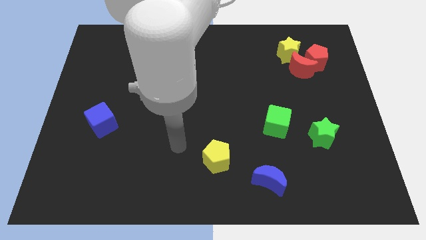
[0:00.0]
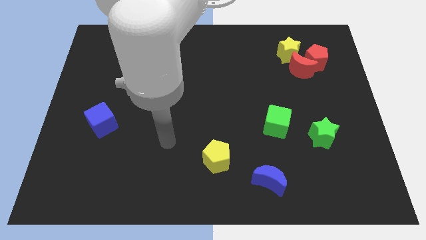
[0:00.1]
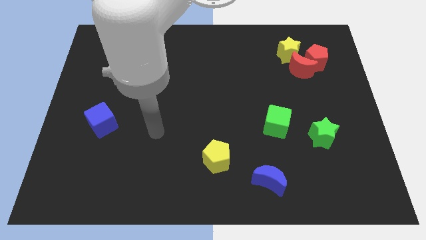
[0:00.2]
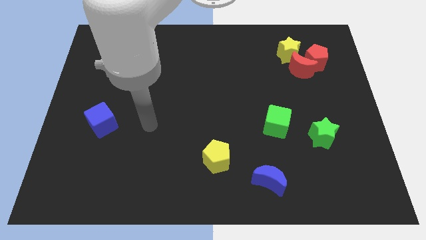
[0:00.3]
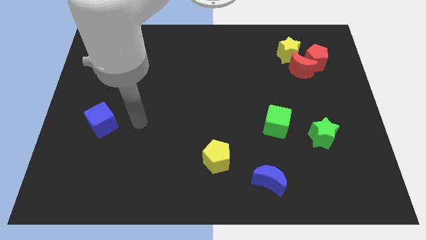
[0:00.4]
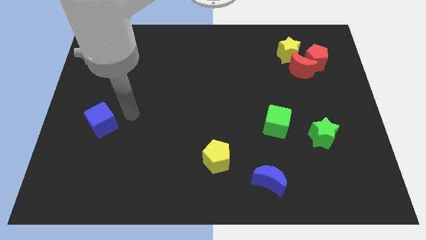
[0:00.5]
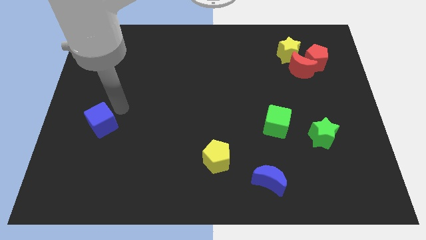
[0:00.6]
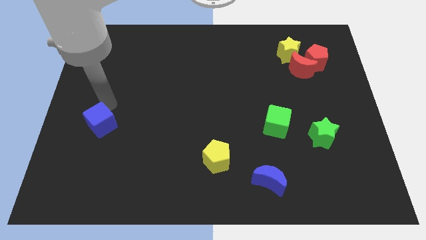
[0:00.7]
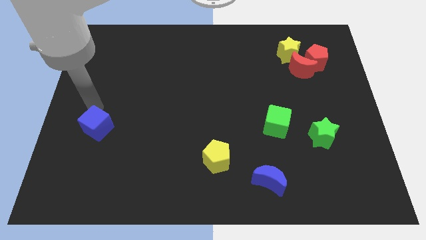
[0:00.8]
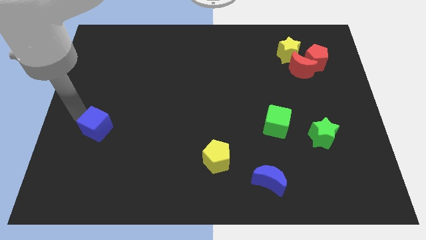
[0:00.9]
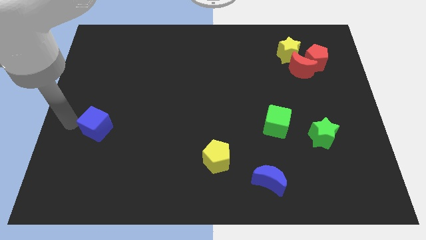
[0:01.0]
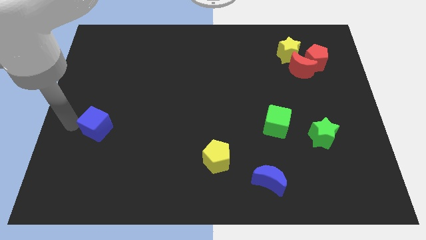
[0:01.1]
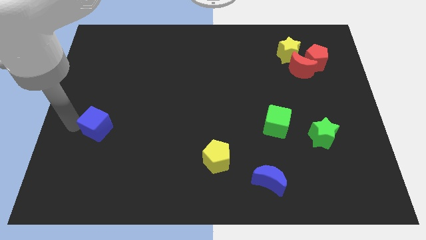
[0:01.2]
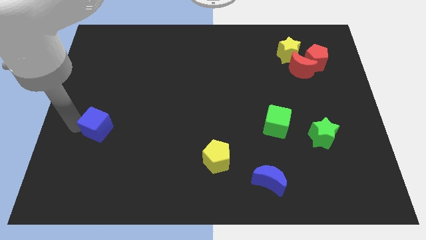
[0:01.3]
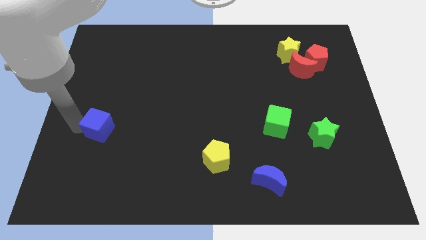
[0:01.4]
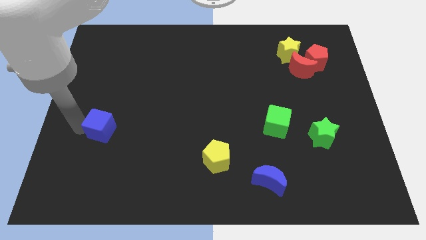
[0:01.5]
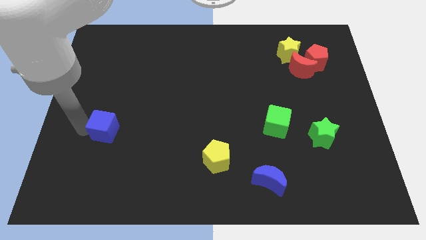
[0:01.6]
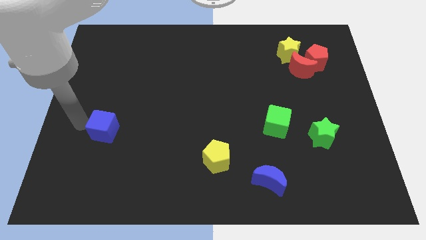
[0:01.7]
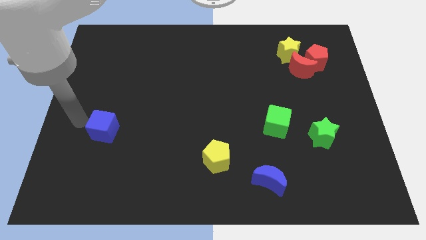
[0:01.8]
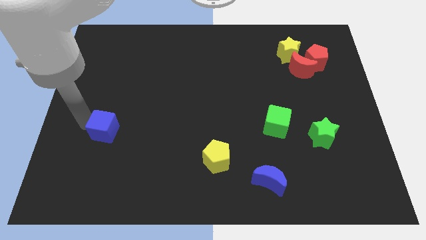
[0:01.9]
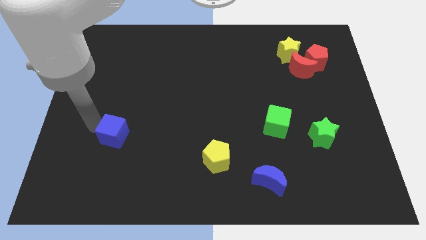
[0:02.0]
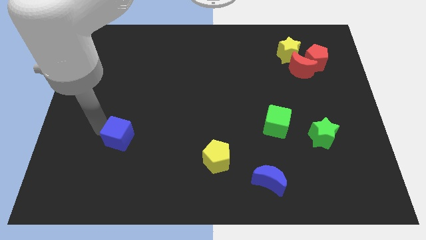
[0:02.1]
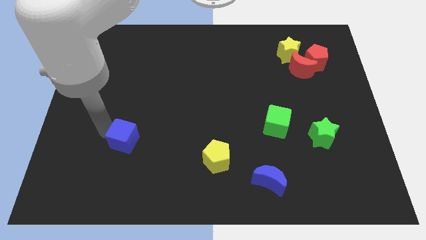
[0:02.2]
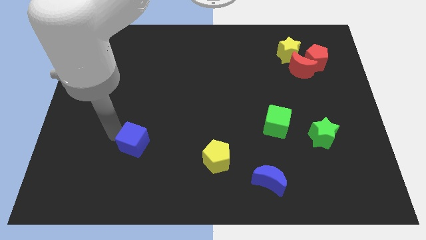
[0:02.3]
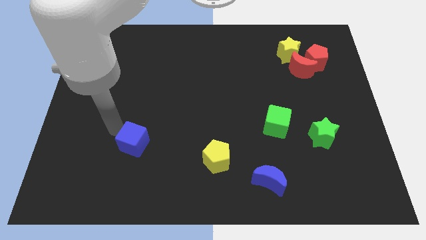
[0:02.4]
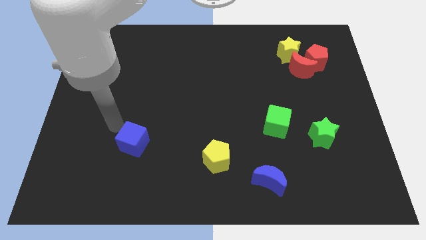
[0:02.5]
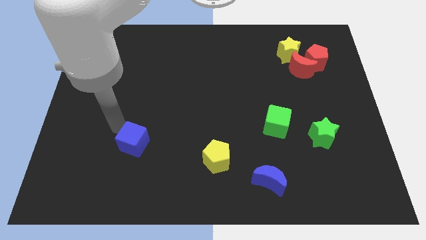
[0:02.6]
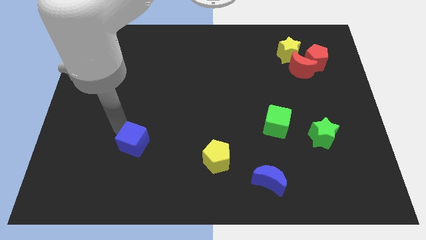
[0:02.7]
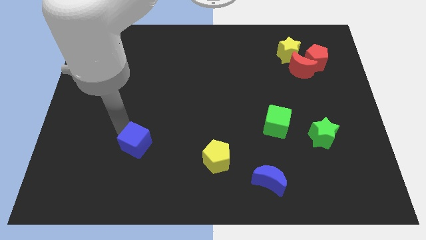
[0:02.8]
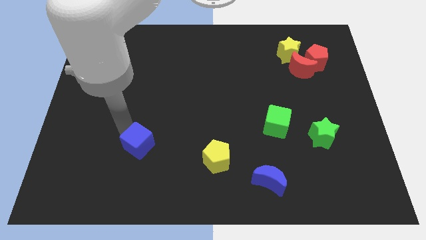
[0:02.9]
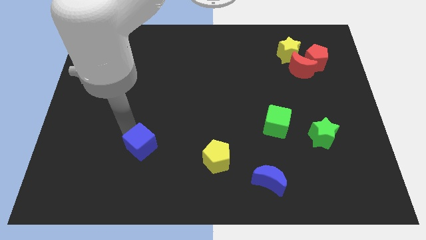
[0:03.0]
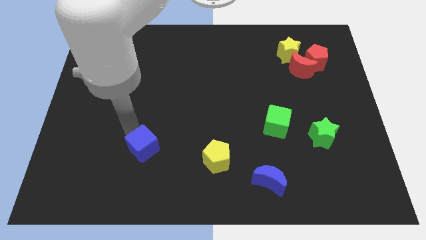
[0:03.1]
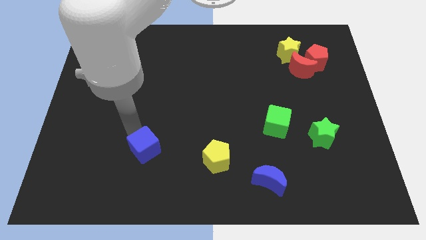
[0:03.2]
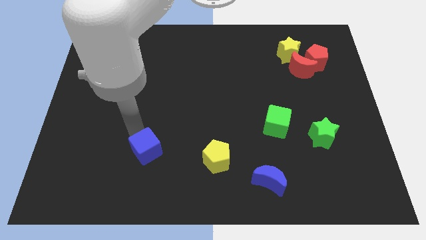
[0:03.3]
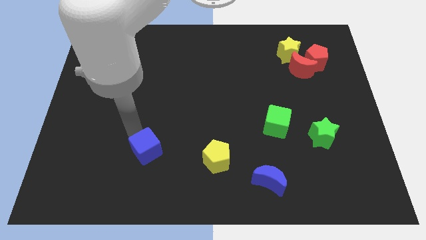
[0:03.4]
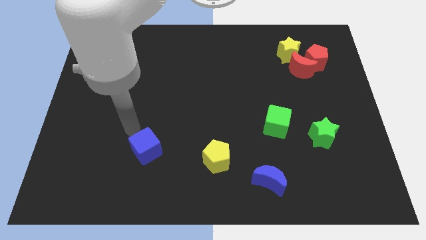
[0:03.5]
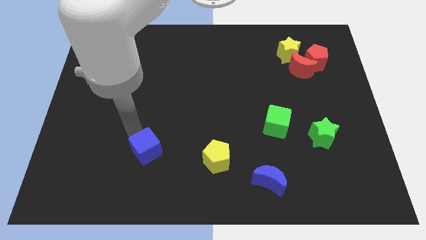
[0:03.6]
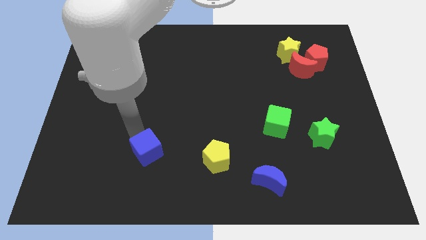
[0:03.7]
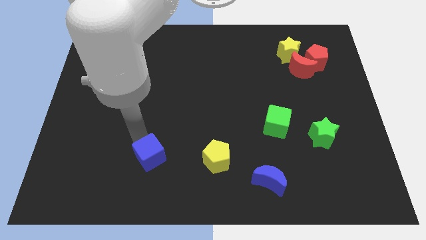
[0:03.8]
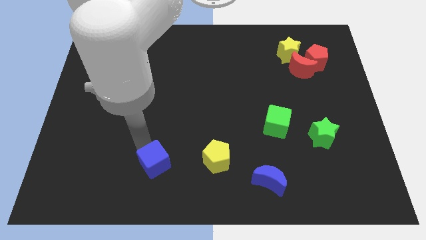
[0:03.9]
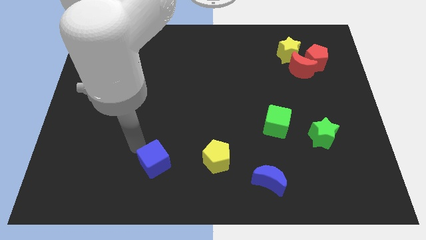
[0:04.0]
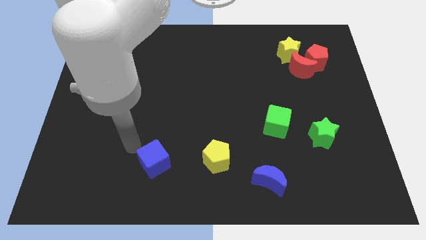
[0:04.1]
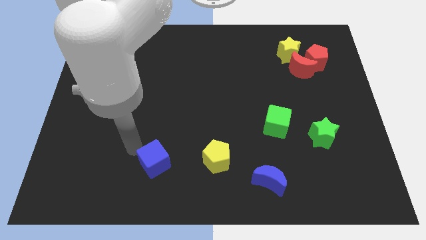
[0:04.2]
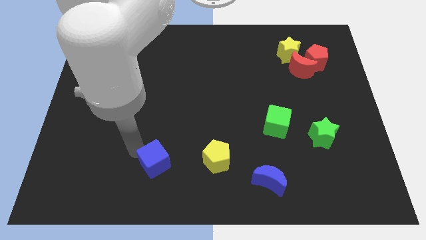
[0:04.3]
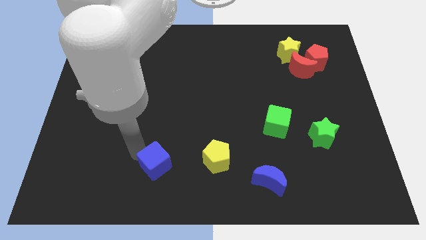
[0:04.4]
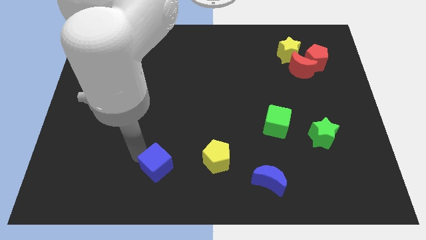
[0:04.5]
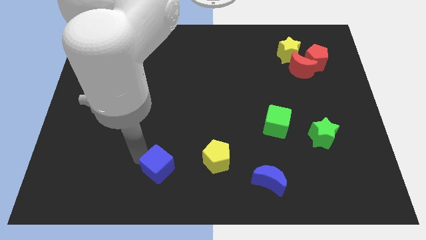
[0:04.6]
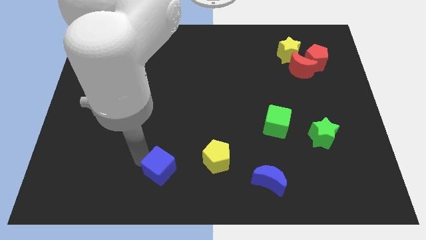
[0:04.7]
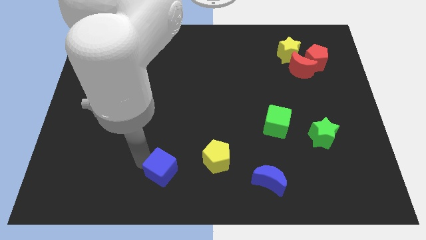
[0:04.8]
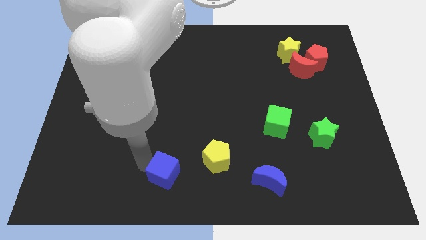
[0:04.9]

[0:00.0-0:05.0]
move the blue cube to the bottom

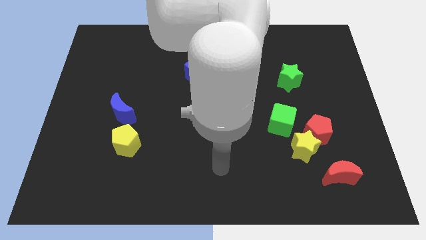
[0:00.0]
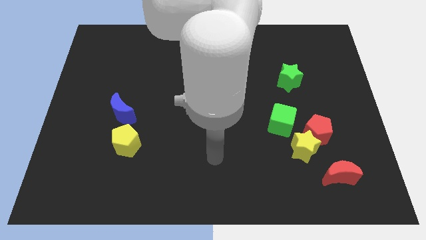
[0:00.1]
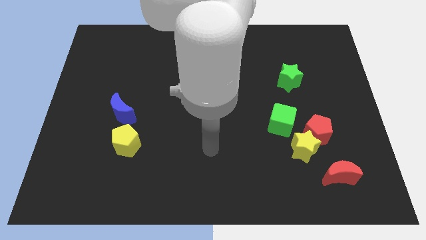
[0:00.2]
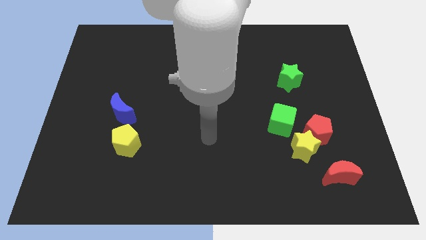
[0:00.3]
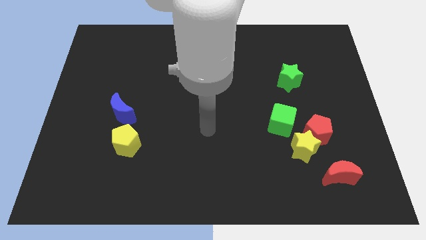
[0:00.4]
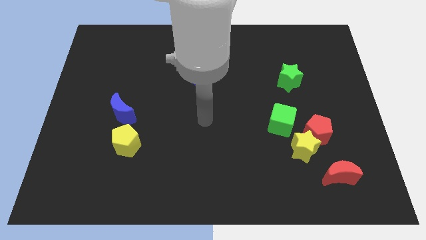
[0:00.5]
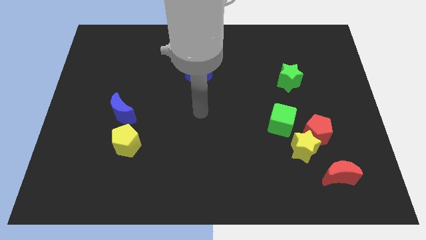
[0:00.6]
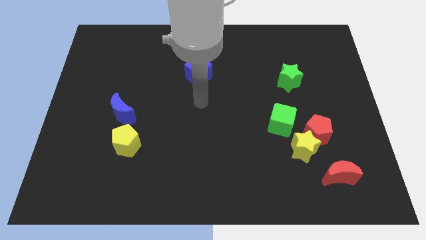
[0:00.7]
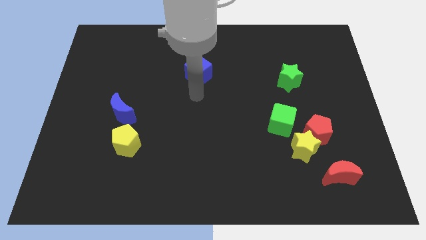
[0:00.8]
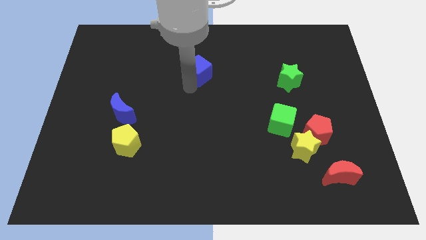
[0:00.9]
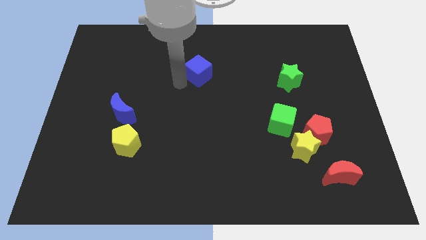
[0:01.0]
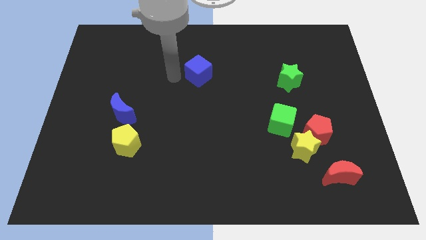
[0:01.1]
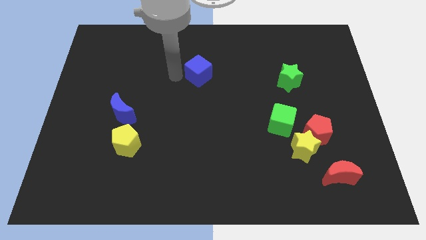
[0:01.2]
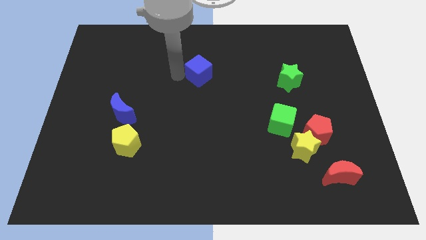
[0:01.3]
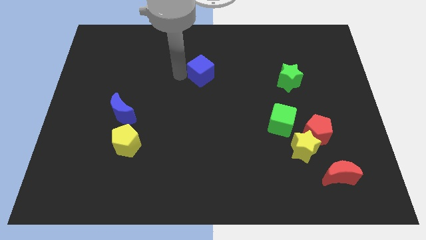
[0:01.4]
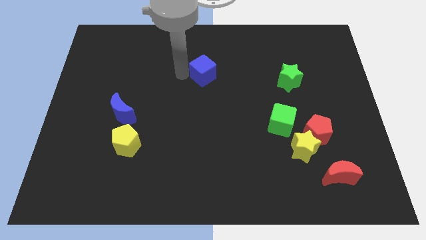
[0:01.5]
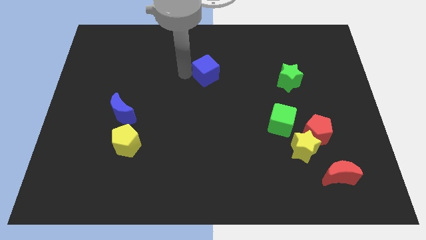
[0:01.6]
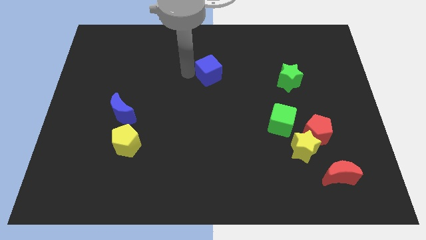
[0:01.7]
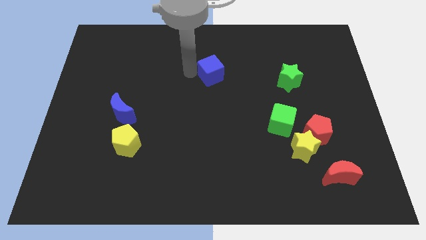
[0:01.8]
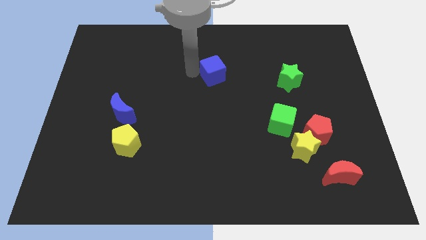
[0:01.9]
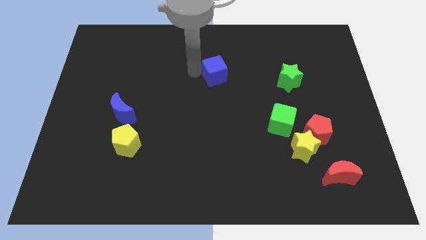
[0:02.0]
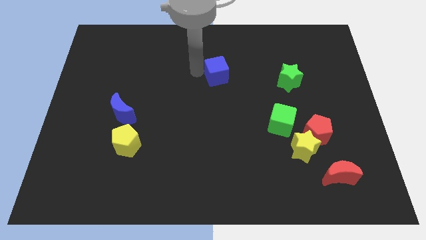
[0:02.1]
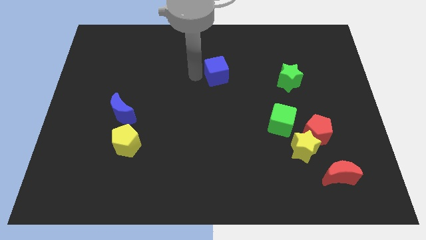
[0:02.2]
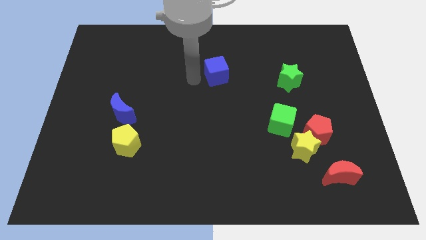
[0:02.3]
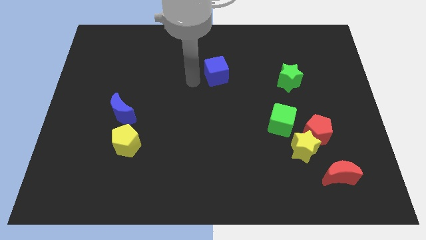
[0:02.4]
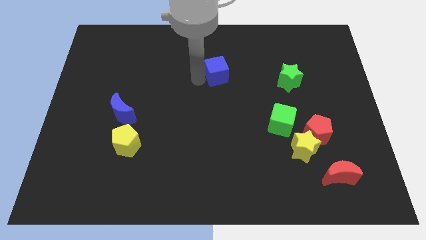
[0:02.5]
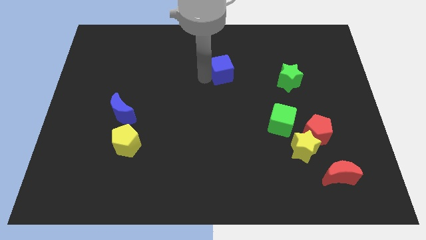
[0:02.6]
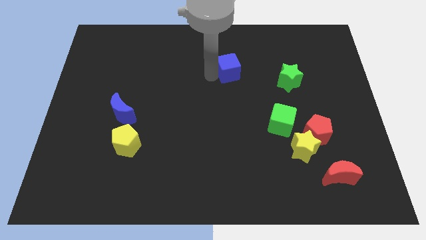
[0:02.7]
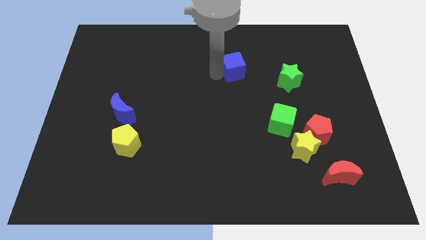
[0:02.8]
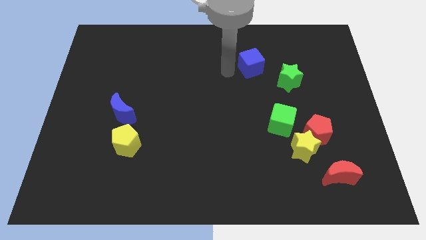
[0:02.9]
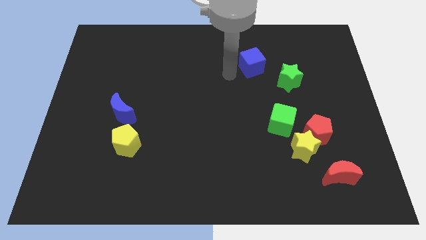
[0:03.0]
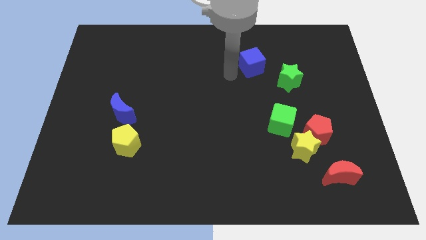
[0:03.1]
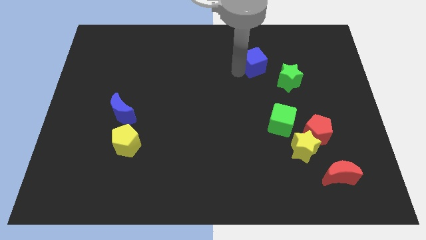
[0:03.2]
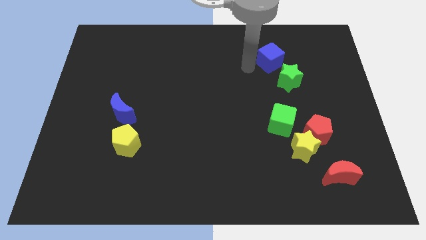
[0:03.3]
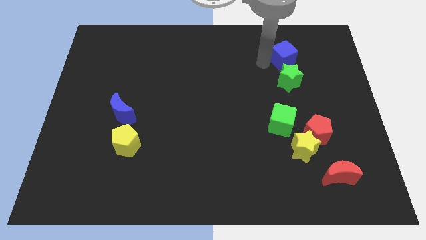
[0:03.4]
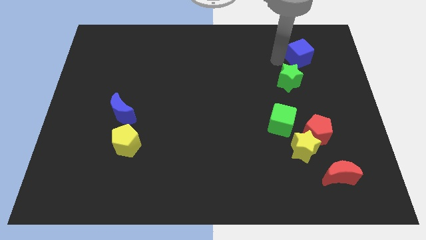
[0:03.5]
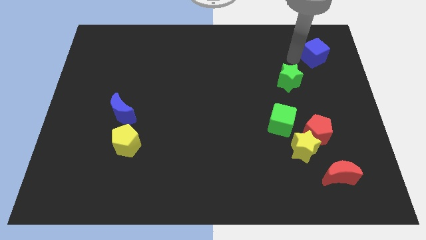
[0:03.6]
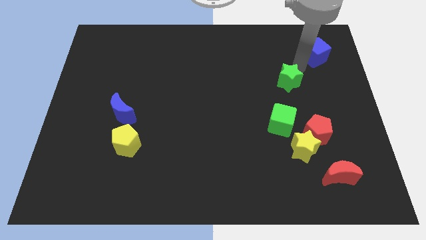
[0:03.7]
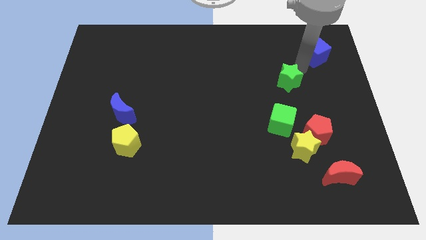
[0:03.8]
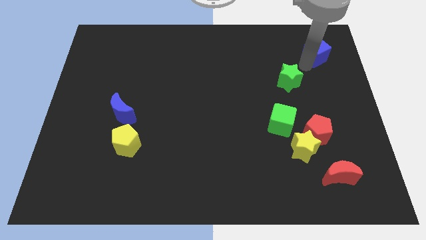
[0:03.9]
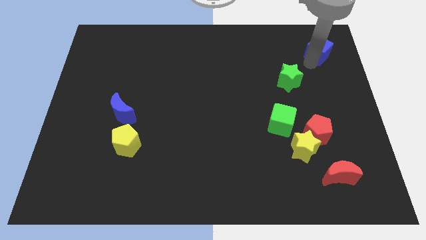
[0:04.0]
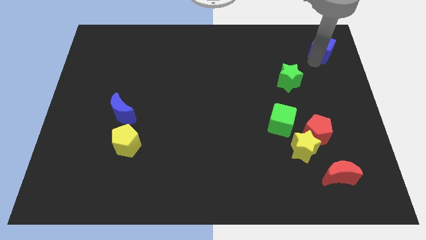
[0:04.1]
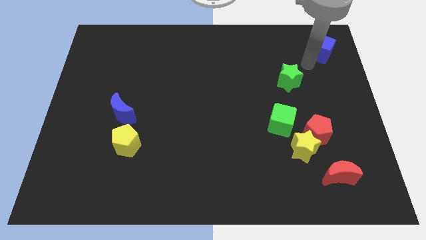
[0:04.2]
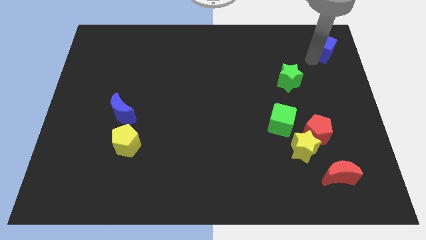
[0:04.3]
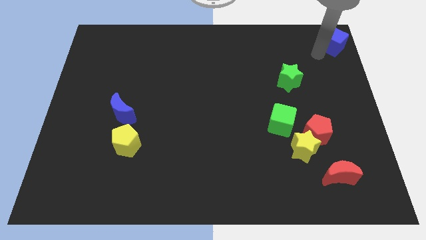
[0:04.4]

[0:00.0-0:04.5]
put the blue cube to the top right corner
